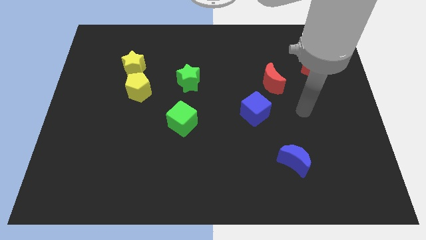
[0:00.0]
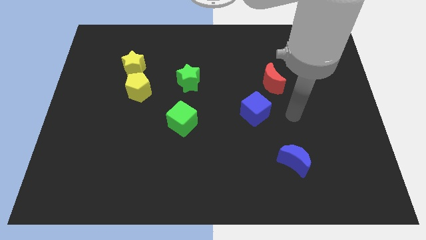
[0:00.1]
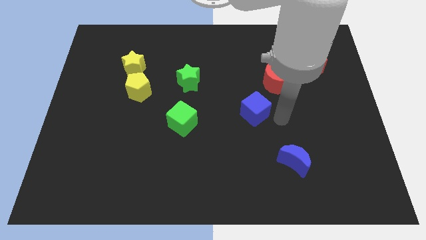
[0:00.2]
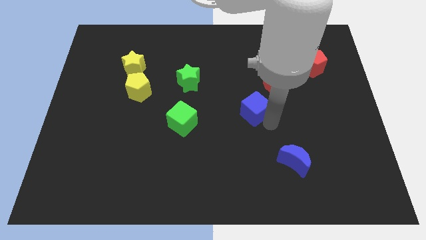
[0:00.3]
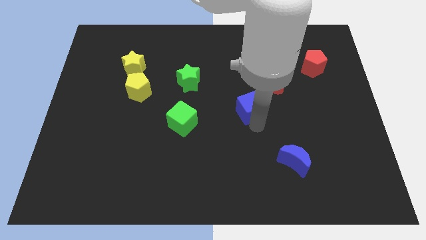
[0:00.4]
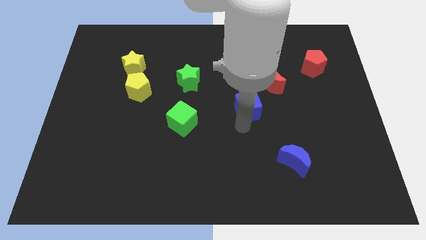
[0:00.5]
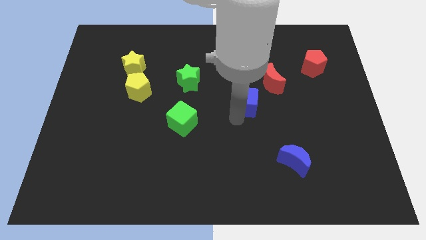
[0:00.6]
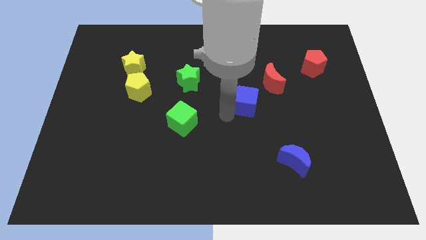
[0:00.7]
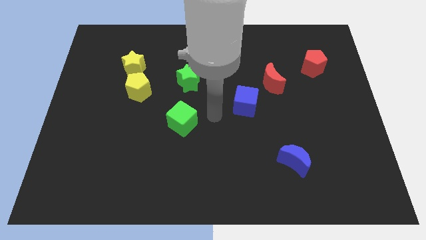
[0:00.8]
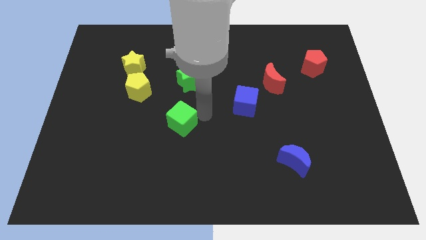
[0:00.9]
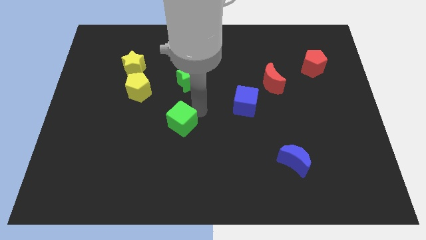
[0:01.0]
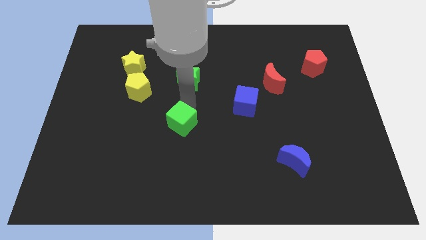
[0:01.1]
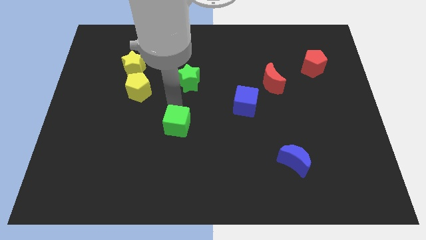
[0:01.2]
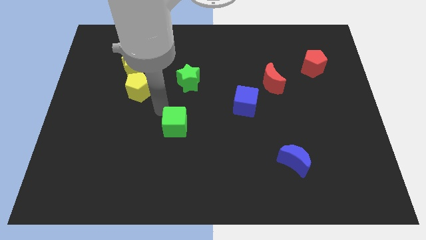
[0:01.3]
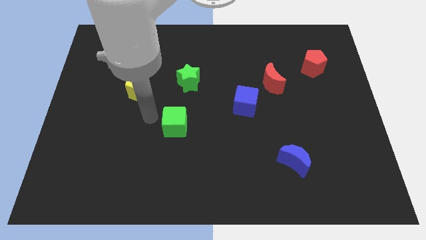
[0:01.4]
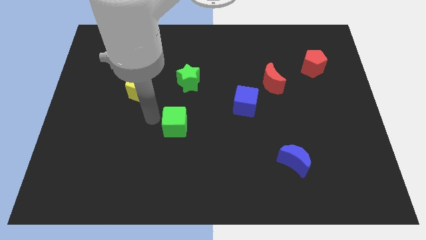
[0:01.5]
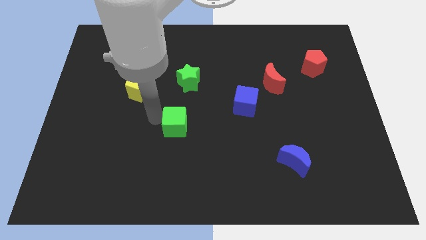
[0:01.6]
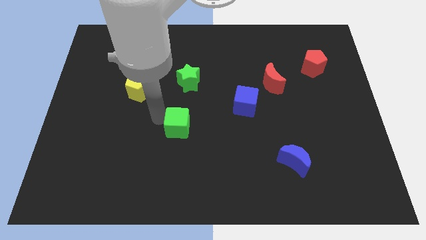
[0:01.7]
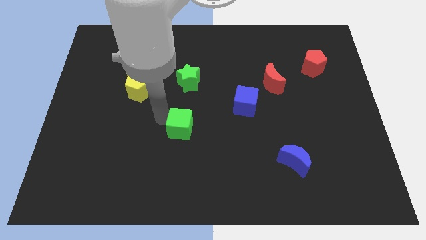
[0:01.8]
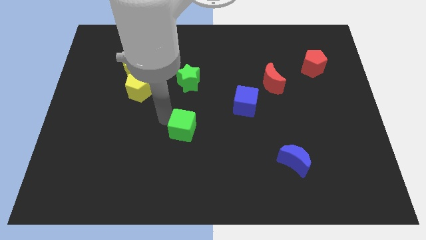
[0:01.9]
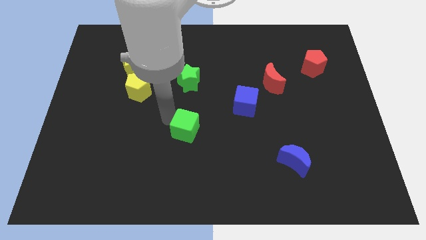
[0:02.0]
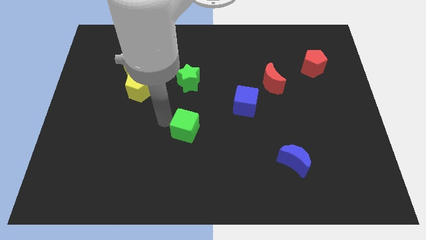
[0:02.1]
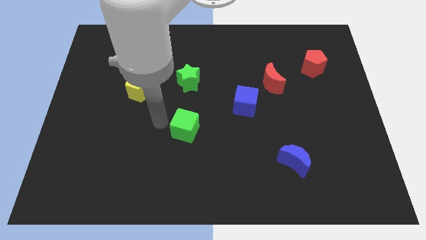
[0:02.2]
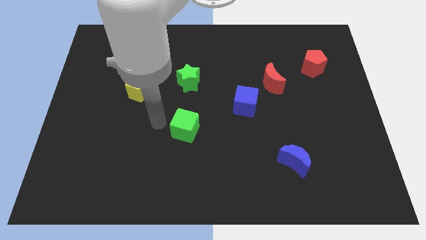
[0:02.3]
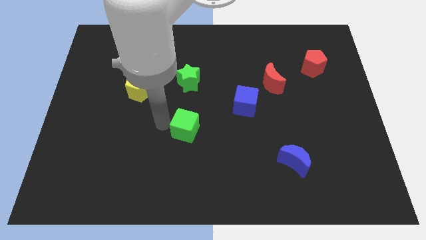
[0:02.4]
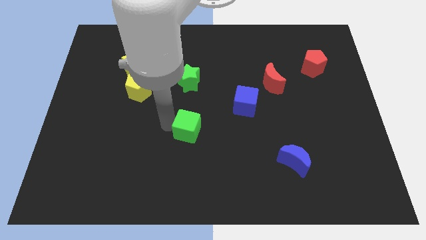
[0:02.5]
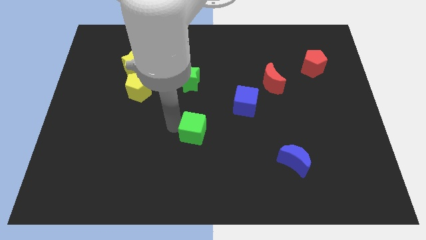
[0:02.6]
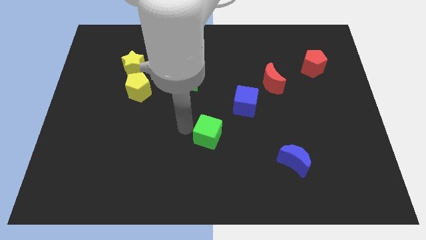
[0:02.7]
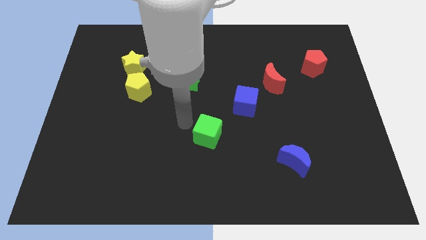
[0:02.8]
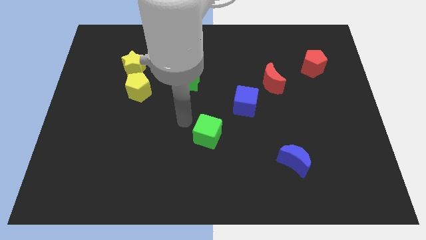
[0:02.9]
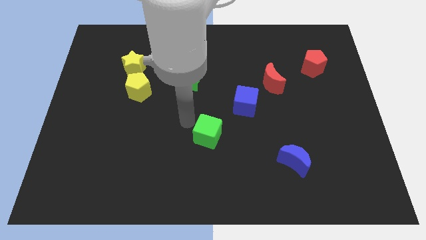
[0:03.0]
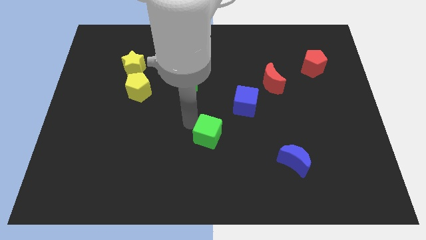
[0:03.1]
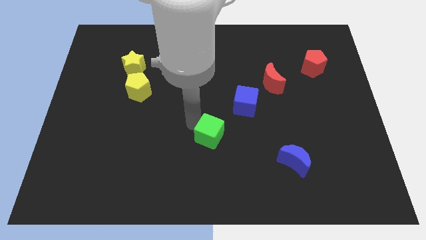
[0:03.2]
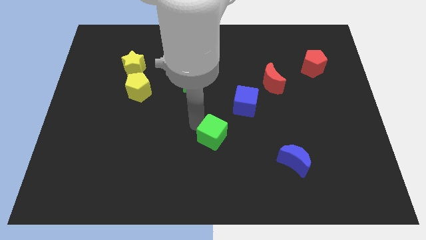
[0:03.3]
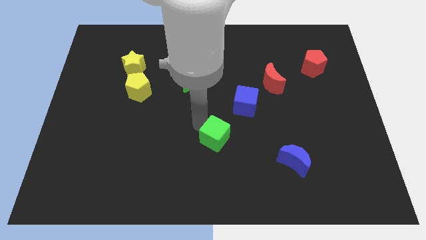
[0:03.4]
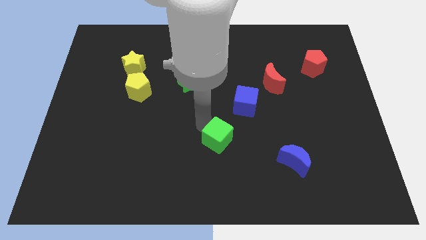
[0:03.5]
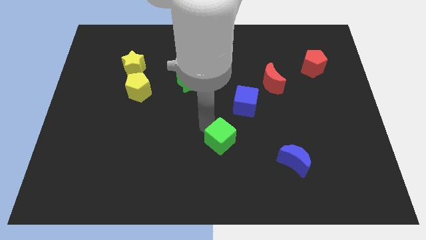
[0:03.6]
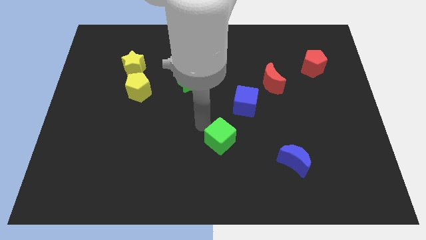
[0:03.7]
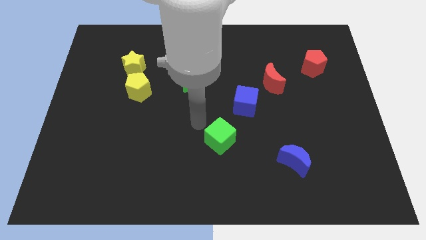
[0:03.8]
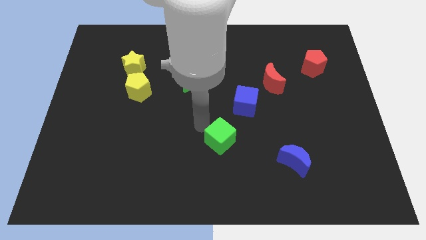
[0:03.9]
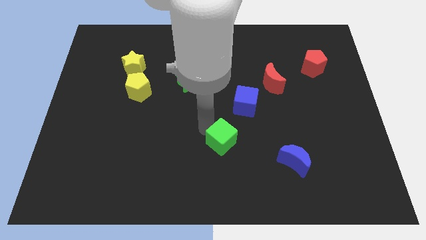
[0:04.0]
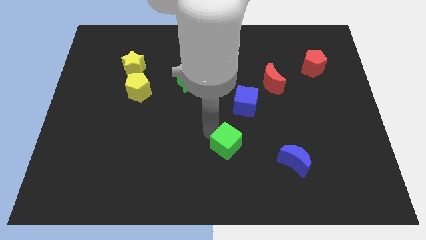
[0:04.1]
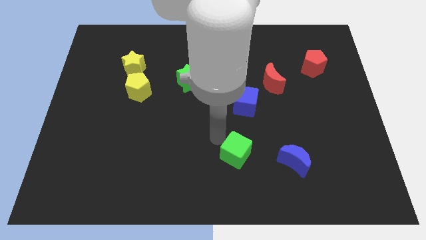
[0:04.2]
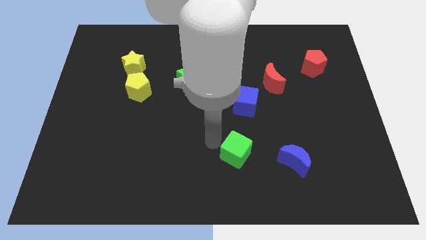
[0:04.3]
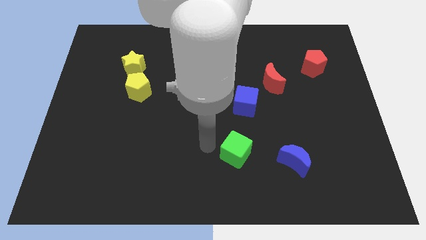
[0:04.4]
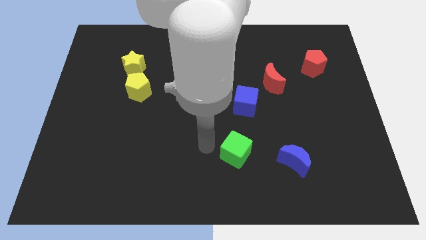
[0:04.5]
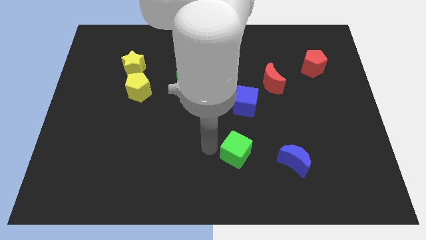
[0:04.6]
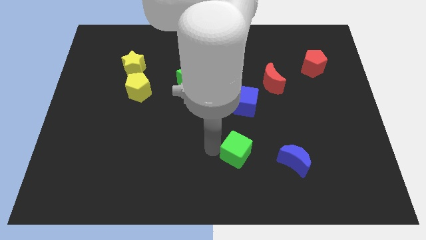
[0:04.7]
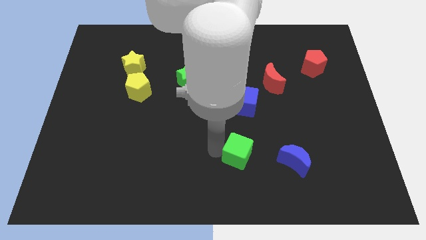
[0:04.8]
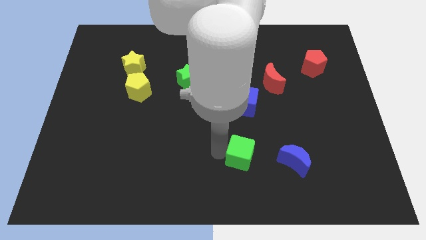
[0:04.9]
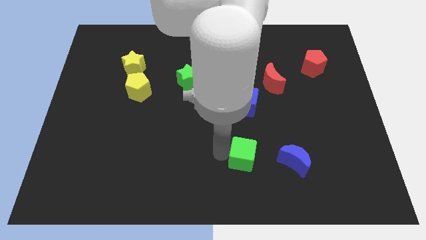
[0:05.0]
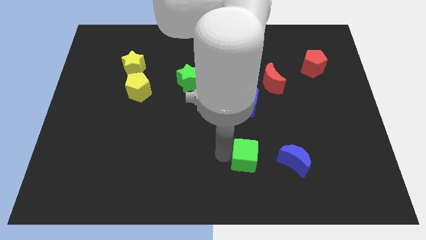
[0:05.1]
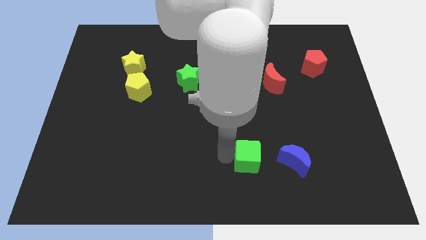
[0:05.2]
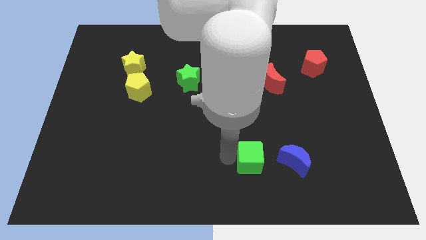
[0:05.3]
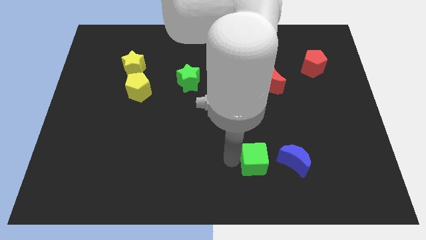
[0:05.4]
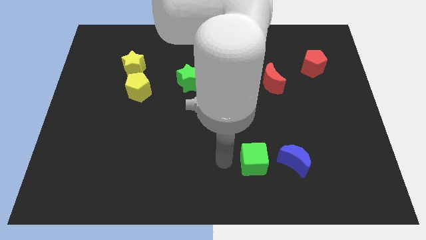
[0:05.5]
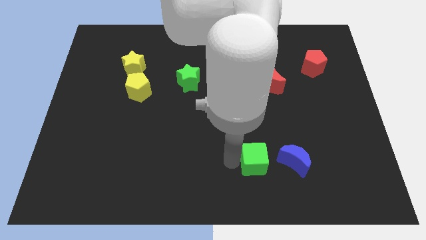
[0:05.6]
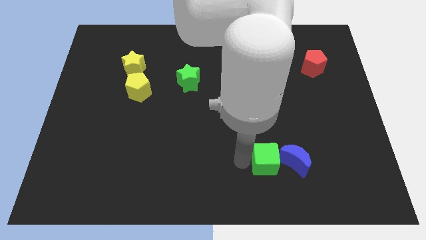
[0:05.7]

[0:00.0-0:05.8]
put the green cube to the blue moon

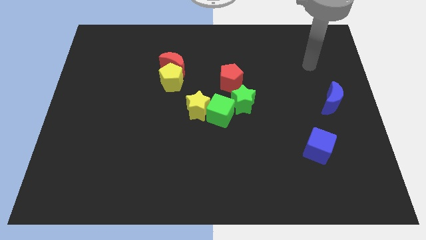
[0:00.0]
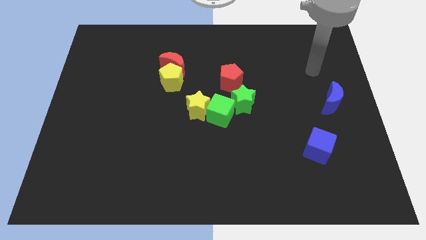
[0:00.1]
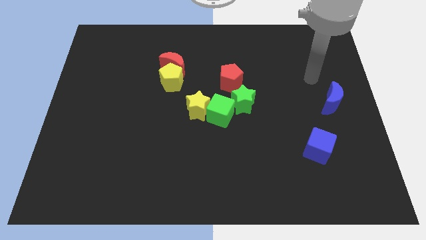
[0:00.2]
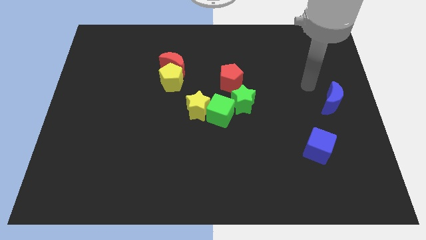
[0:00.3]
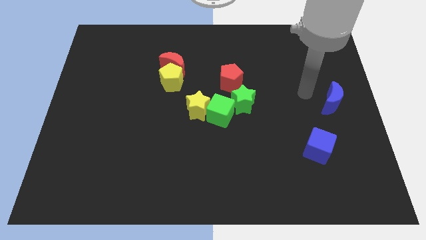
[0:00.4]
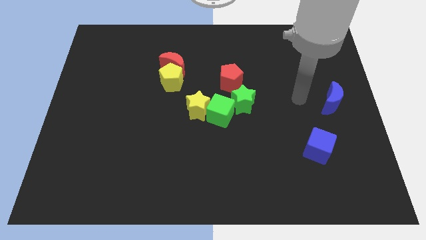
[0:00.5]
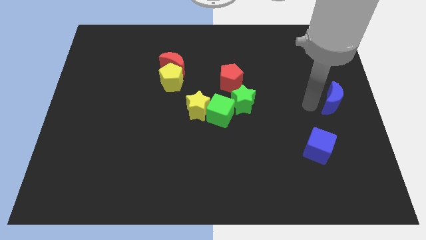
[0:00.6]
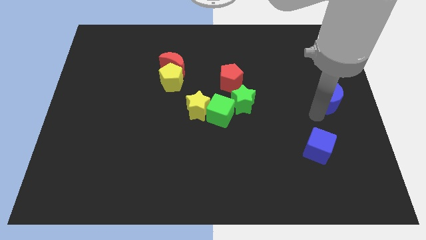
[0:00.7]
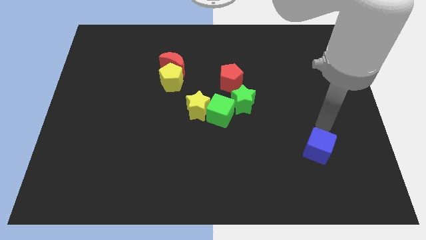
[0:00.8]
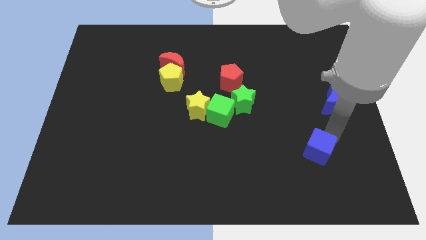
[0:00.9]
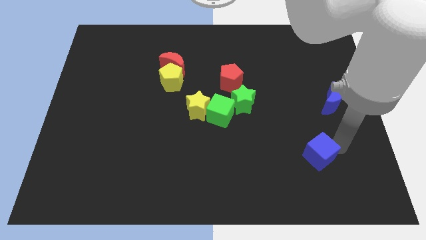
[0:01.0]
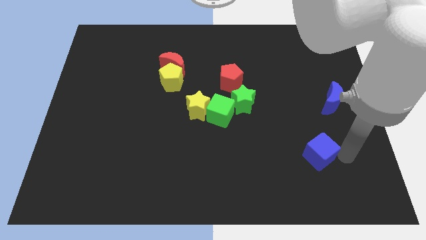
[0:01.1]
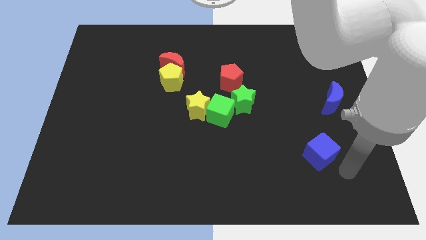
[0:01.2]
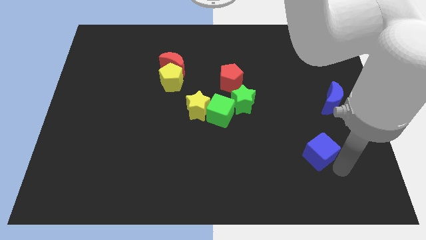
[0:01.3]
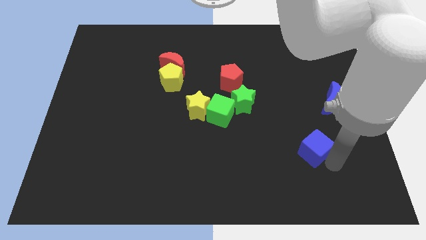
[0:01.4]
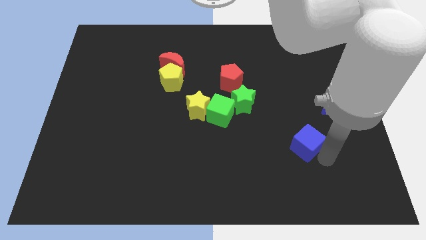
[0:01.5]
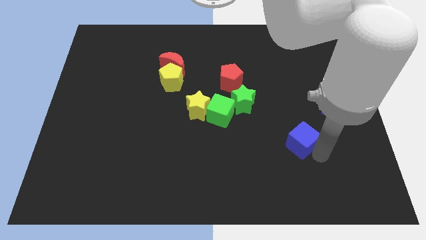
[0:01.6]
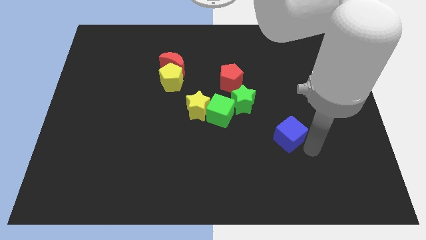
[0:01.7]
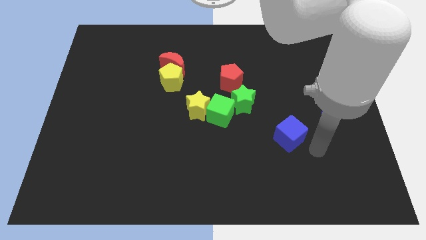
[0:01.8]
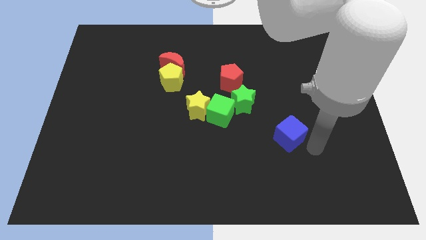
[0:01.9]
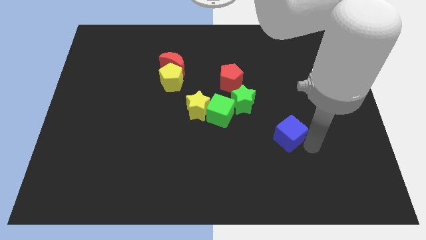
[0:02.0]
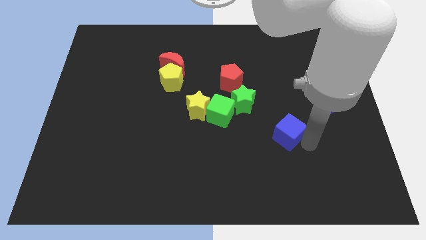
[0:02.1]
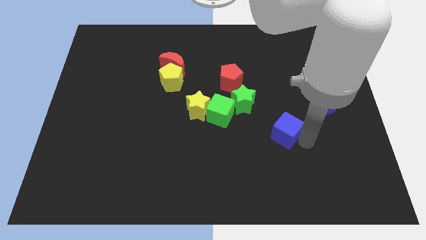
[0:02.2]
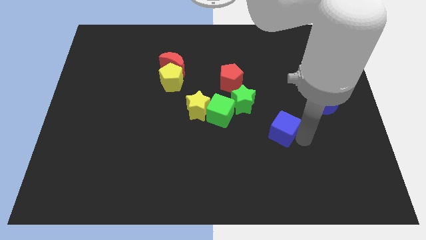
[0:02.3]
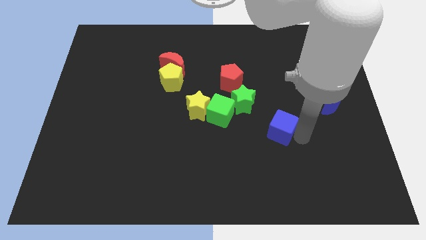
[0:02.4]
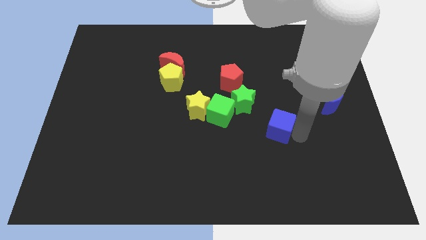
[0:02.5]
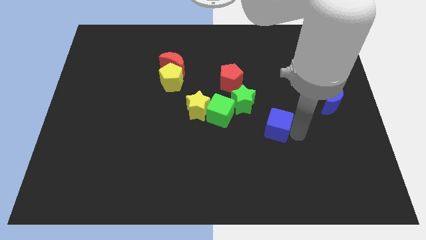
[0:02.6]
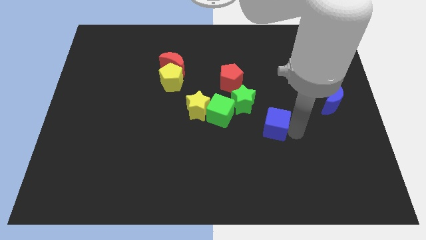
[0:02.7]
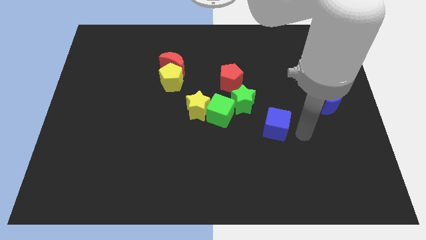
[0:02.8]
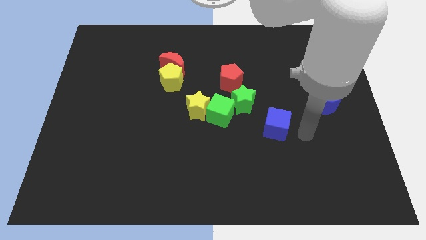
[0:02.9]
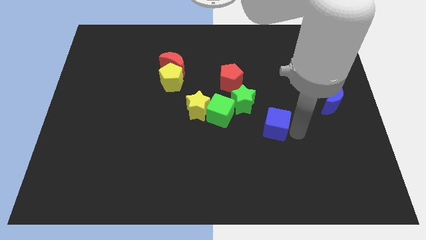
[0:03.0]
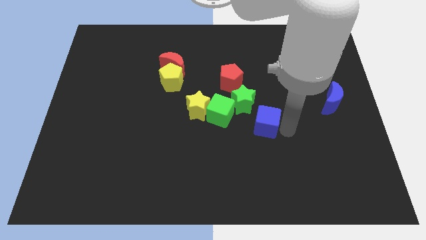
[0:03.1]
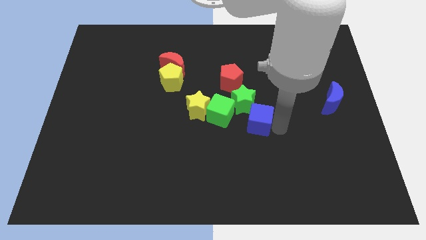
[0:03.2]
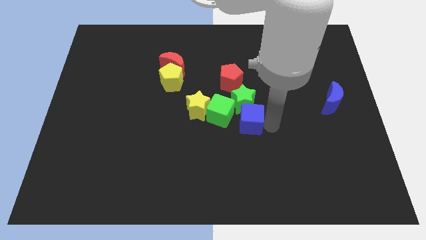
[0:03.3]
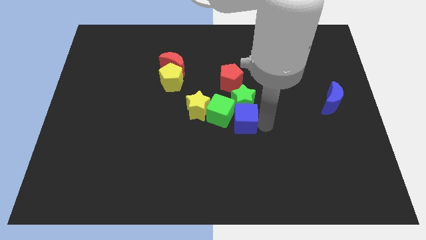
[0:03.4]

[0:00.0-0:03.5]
put the blue cube towards the green cube
